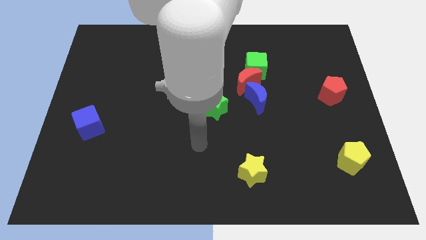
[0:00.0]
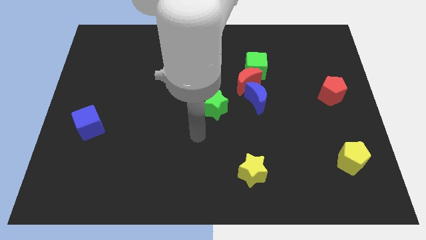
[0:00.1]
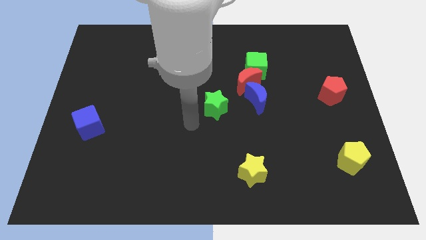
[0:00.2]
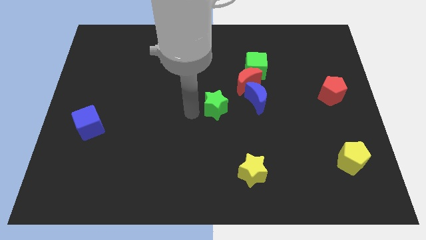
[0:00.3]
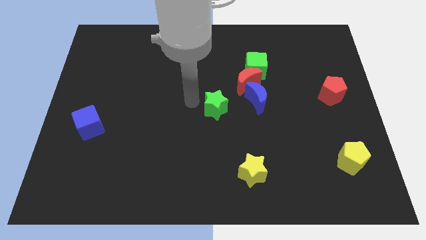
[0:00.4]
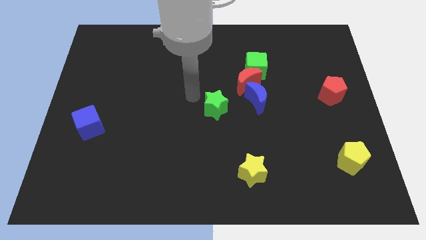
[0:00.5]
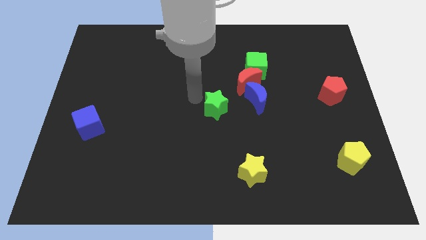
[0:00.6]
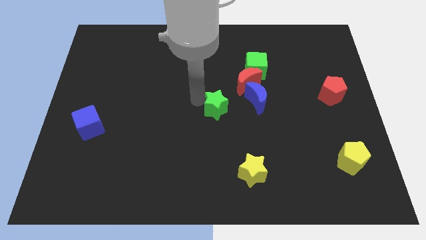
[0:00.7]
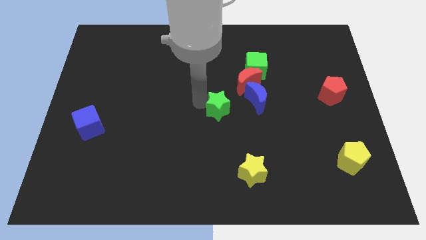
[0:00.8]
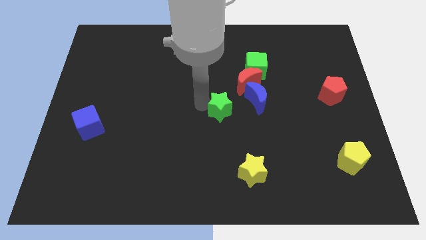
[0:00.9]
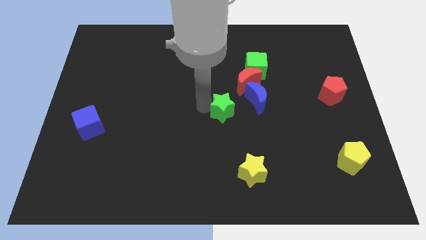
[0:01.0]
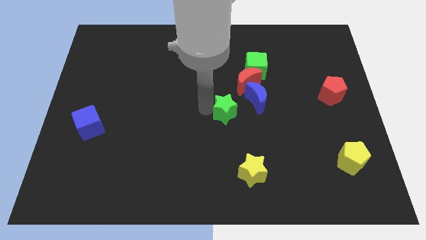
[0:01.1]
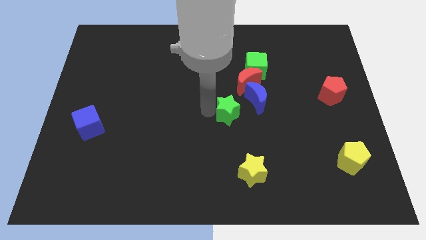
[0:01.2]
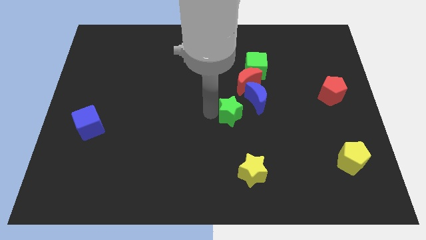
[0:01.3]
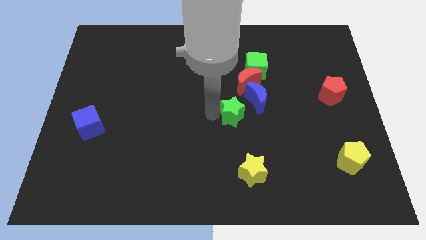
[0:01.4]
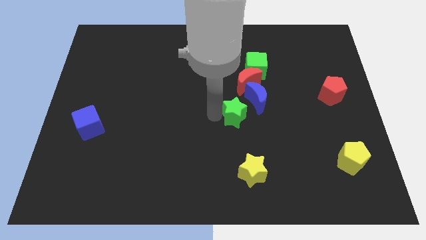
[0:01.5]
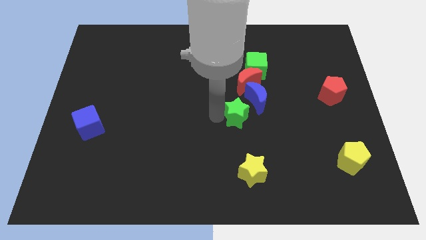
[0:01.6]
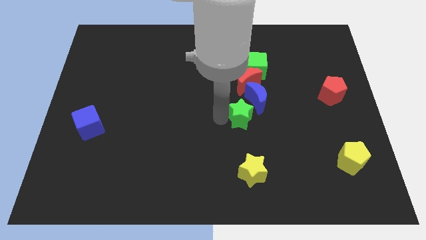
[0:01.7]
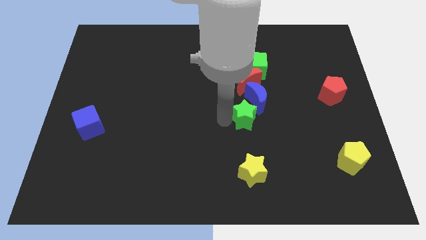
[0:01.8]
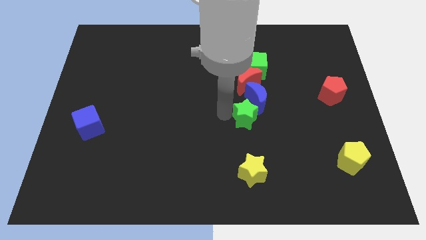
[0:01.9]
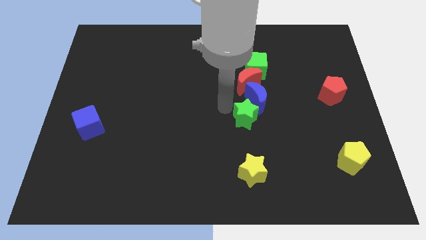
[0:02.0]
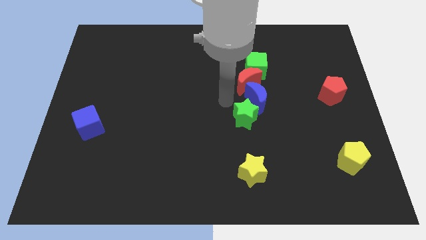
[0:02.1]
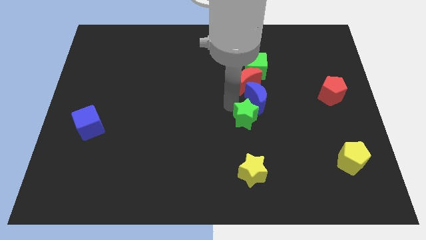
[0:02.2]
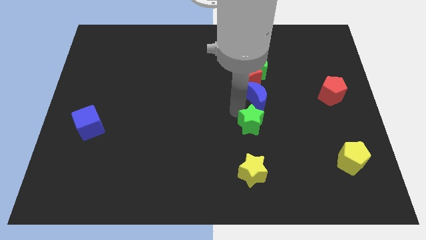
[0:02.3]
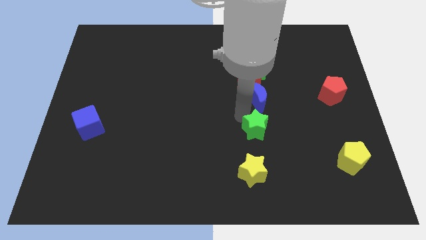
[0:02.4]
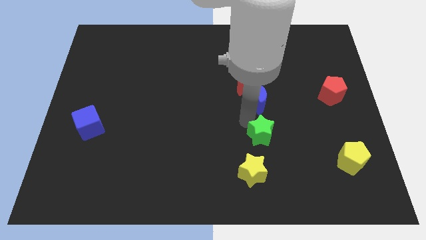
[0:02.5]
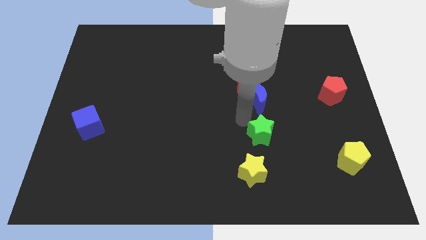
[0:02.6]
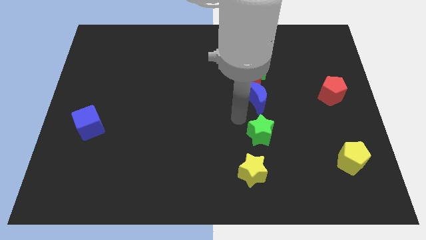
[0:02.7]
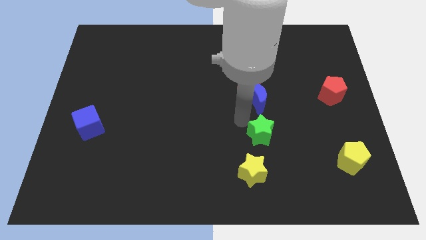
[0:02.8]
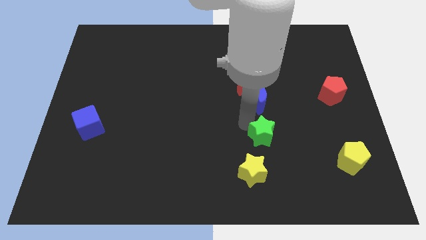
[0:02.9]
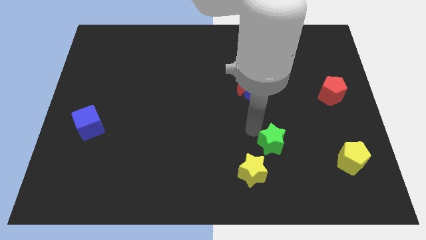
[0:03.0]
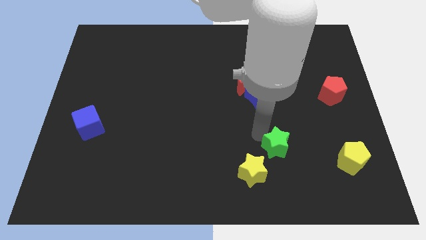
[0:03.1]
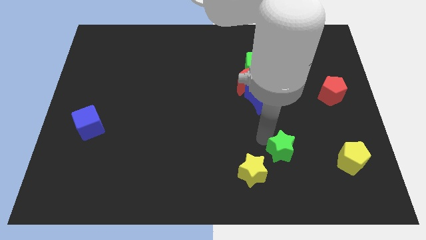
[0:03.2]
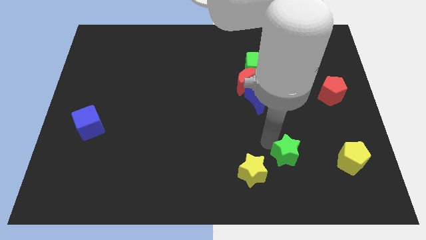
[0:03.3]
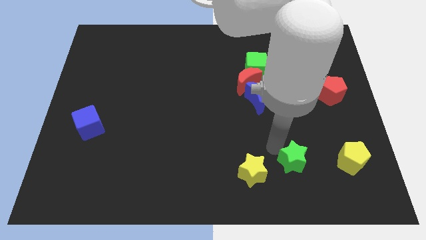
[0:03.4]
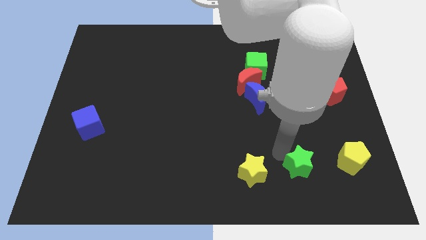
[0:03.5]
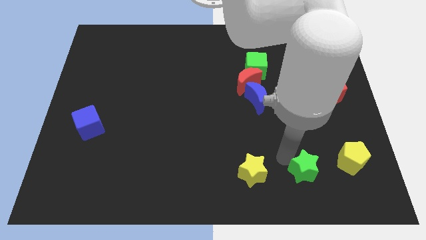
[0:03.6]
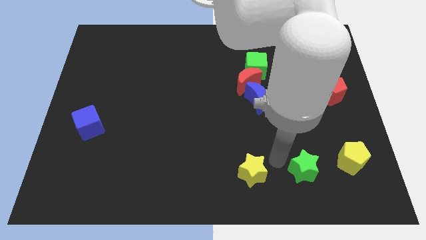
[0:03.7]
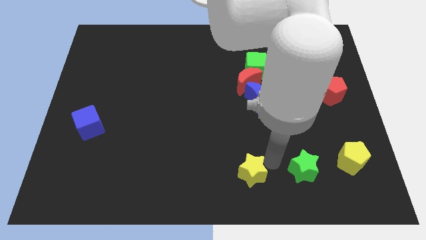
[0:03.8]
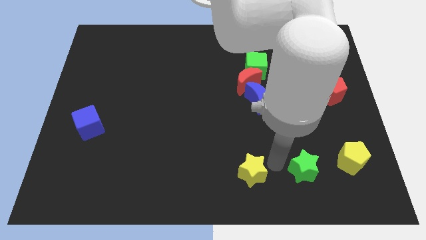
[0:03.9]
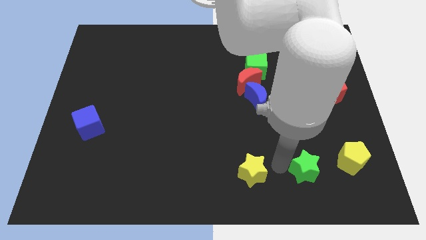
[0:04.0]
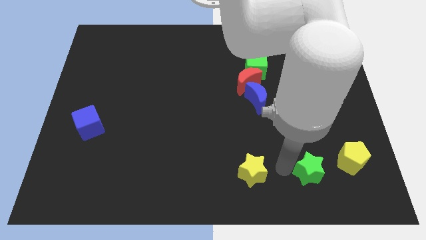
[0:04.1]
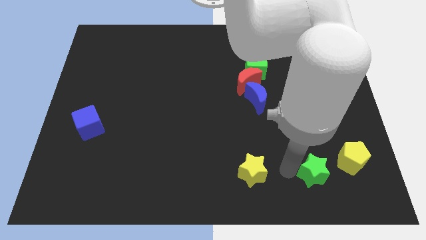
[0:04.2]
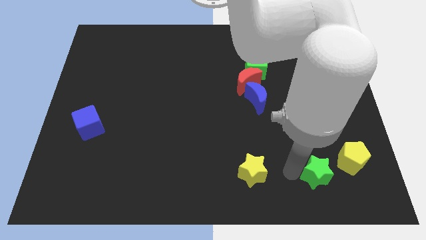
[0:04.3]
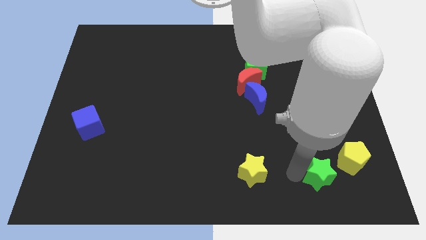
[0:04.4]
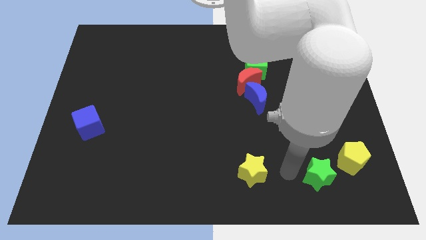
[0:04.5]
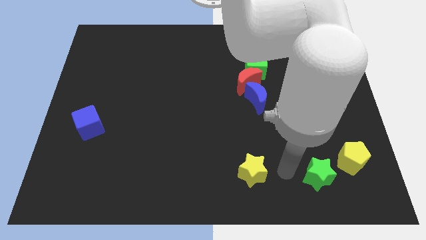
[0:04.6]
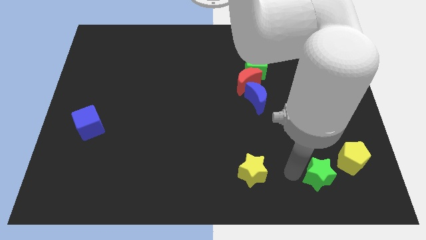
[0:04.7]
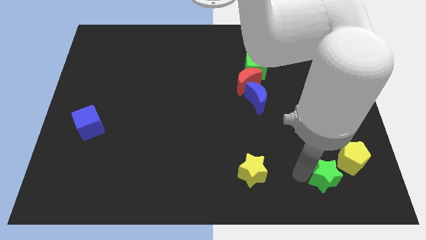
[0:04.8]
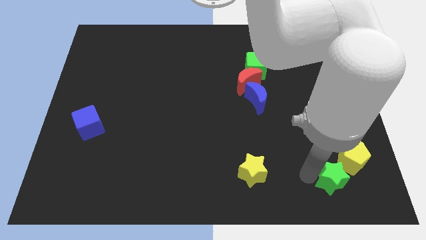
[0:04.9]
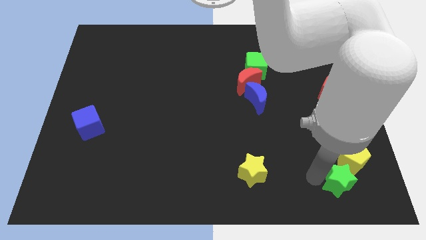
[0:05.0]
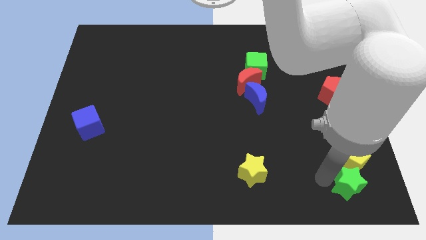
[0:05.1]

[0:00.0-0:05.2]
slide the green star to the bottom right of the board

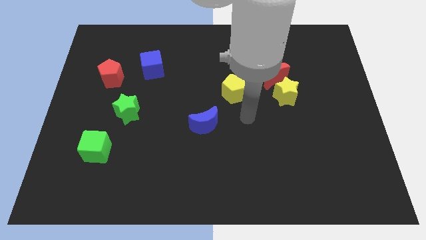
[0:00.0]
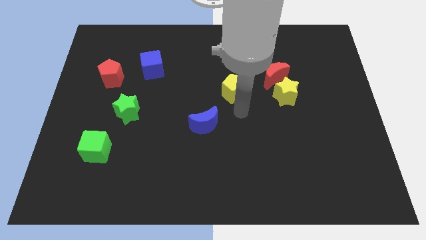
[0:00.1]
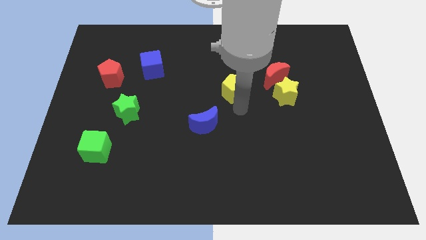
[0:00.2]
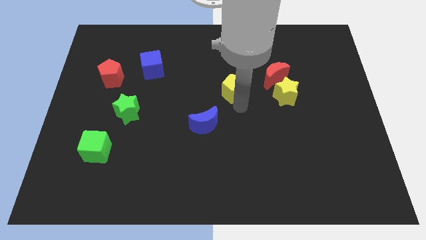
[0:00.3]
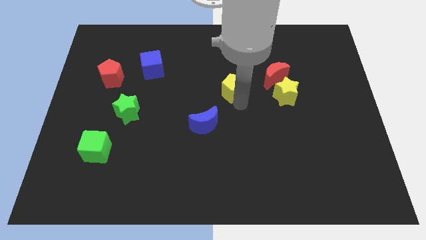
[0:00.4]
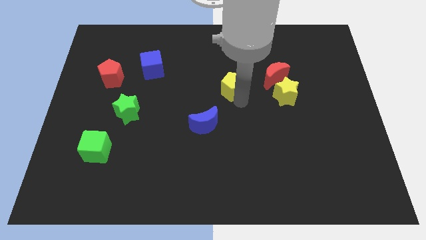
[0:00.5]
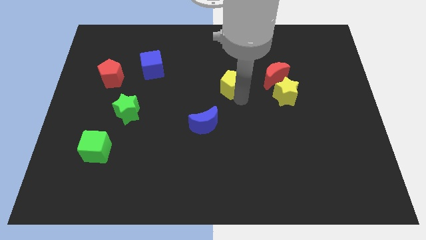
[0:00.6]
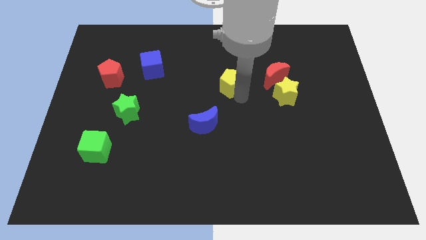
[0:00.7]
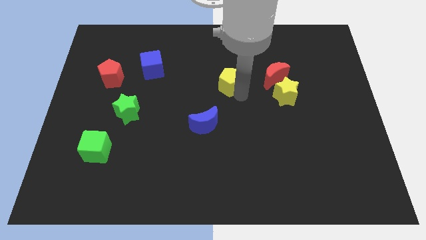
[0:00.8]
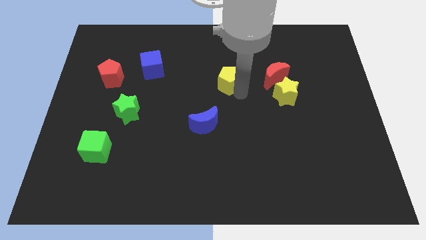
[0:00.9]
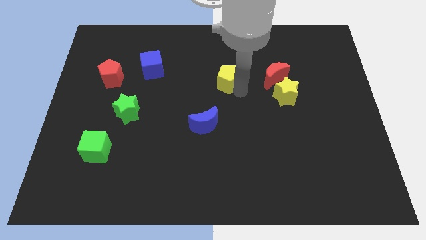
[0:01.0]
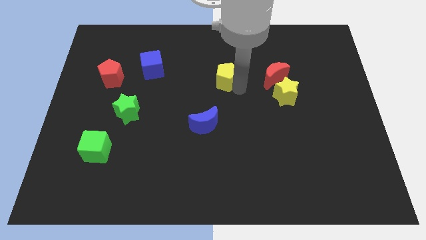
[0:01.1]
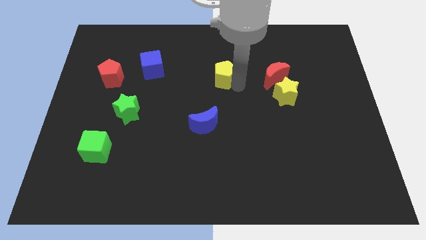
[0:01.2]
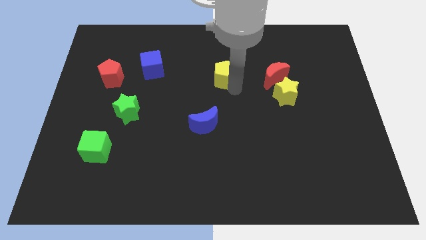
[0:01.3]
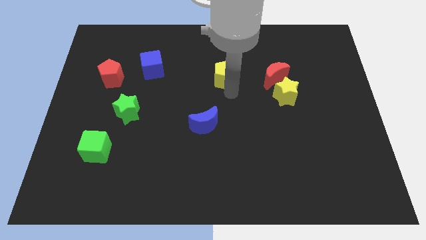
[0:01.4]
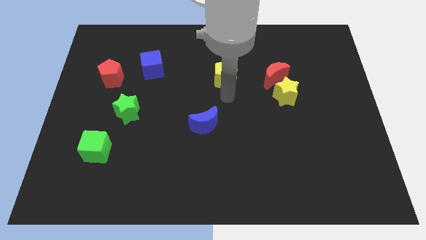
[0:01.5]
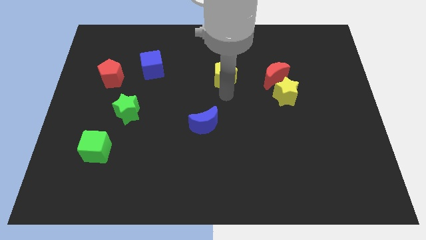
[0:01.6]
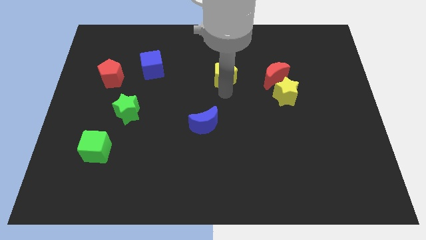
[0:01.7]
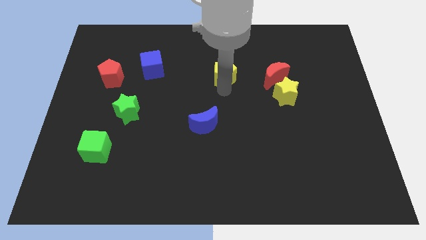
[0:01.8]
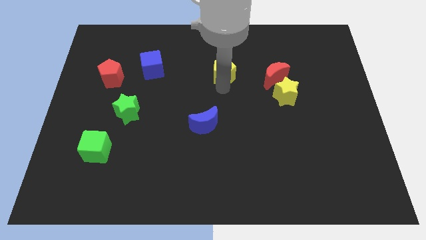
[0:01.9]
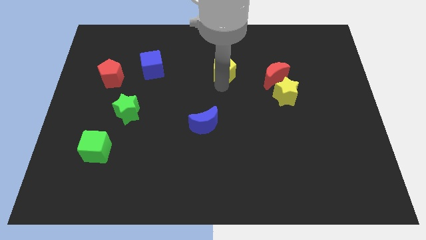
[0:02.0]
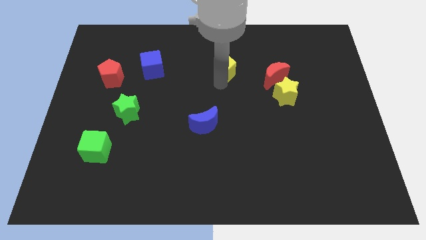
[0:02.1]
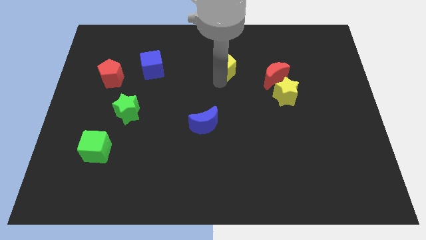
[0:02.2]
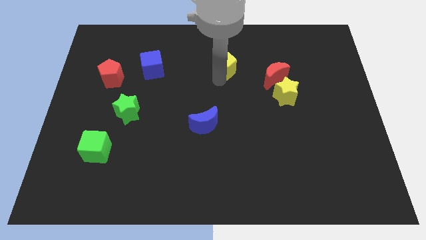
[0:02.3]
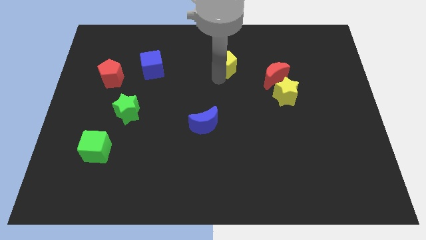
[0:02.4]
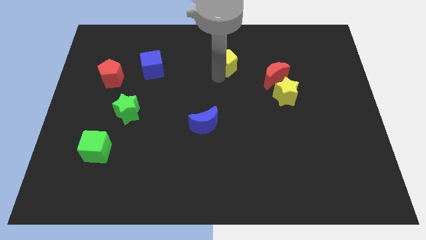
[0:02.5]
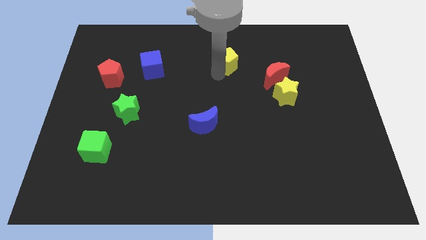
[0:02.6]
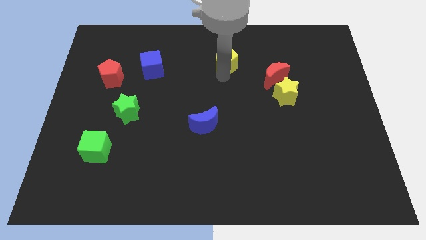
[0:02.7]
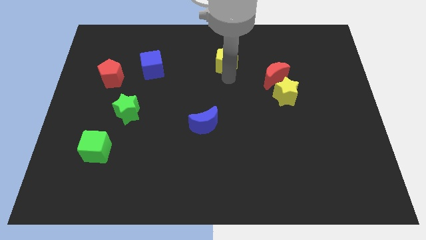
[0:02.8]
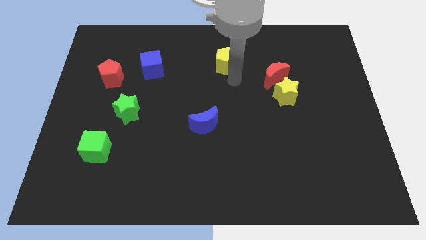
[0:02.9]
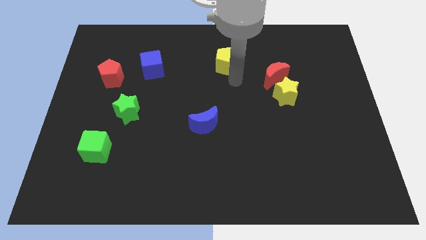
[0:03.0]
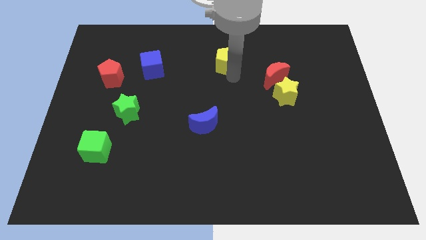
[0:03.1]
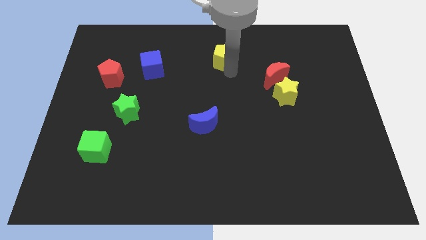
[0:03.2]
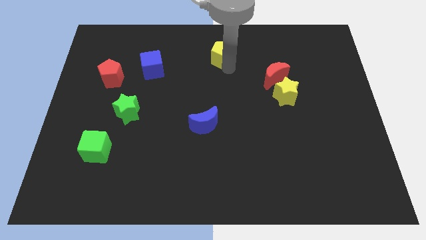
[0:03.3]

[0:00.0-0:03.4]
slide the yellow pentagon to the towards your base
